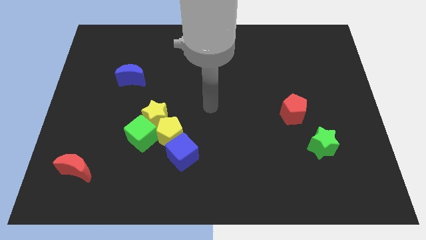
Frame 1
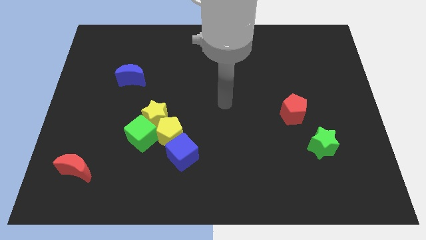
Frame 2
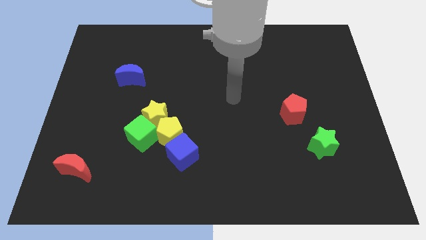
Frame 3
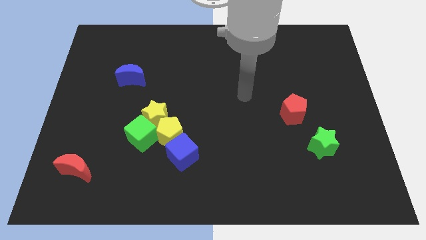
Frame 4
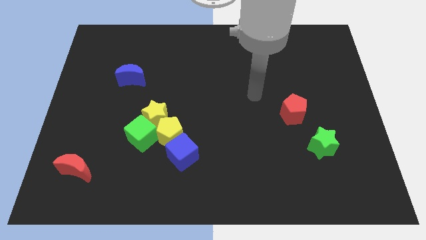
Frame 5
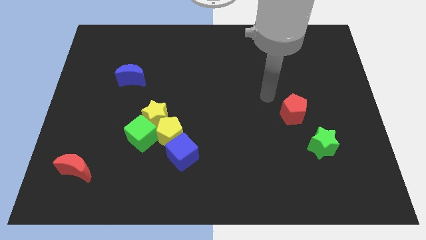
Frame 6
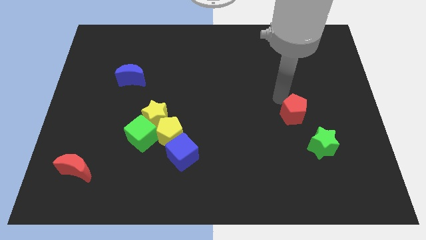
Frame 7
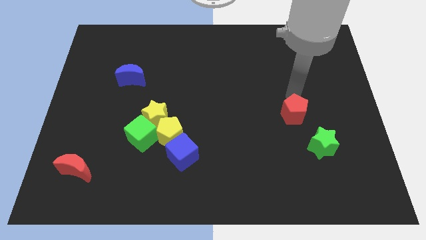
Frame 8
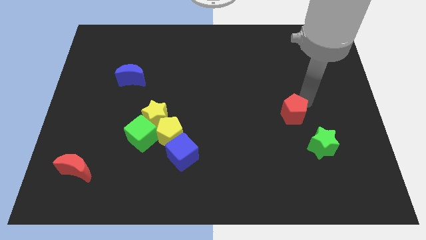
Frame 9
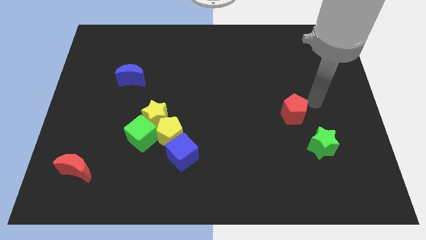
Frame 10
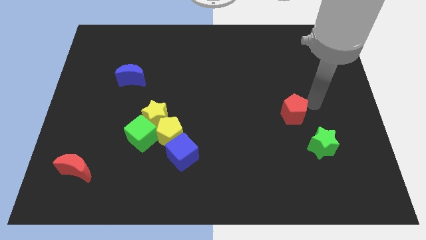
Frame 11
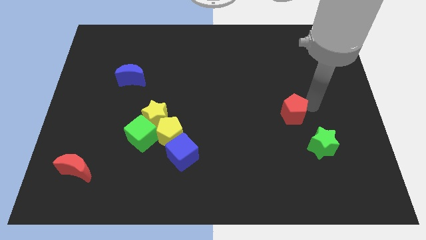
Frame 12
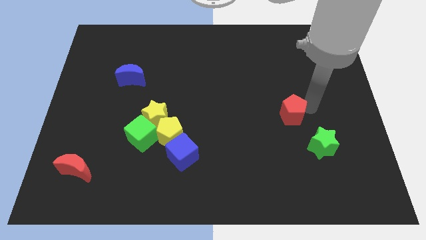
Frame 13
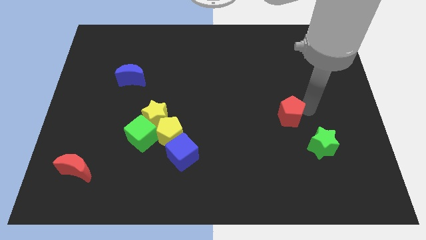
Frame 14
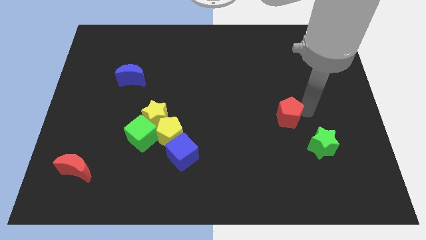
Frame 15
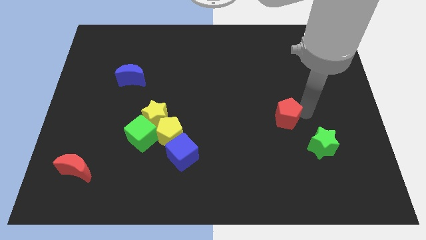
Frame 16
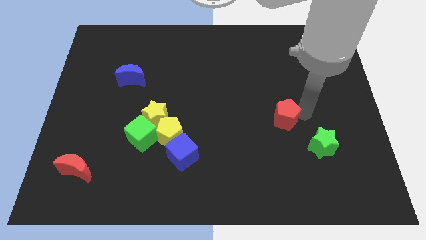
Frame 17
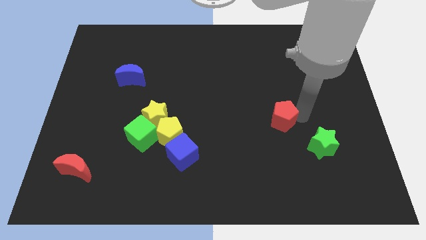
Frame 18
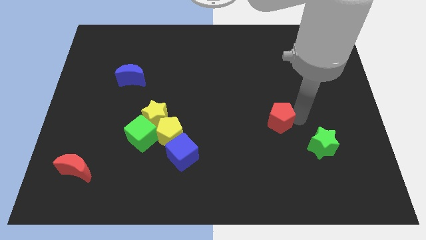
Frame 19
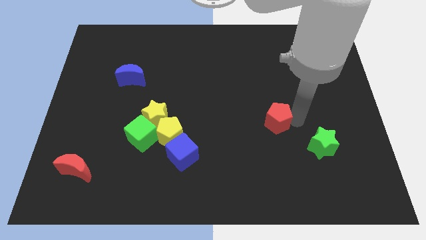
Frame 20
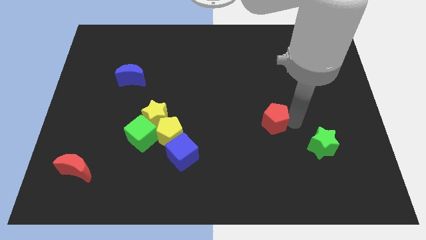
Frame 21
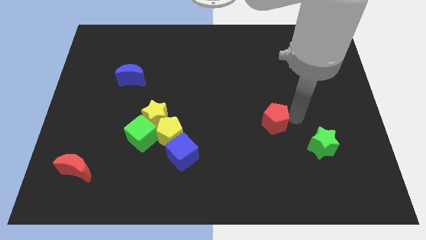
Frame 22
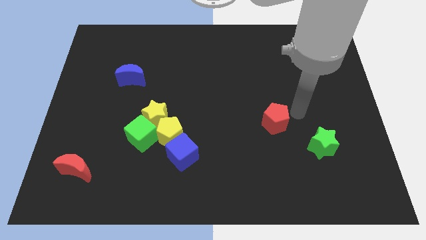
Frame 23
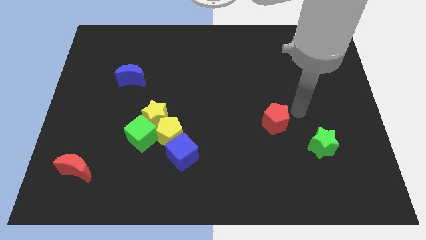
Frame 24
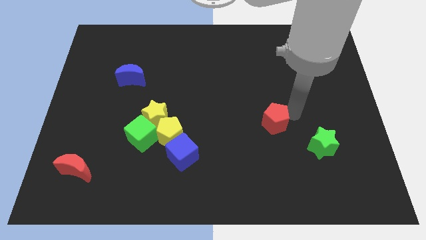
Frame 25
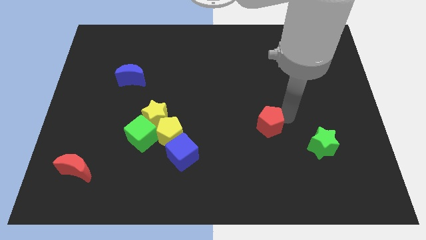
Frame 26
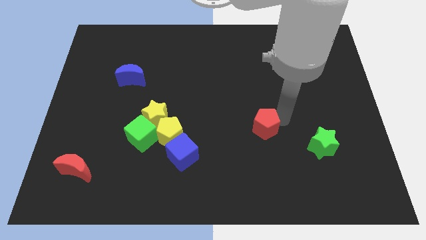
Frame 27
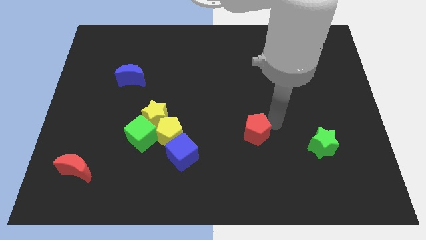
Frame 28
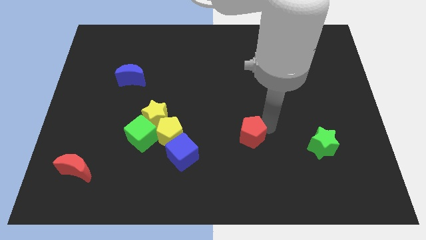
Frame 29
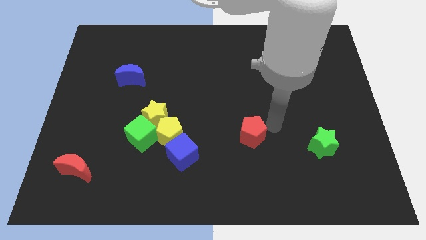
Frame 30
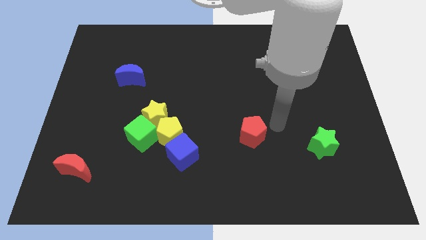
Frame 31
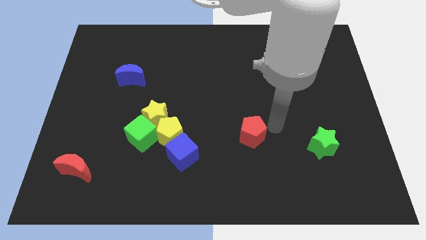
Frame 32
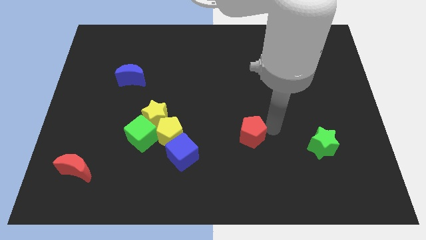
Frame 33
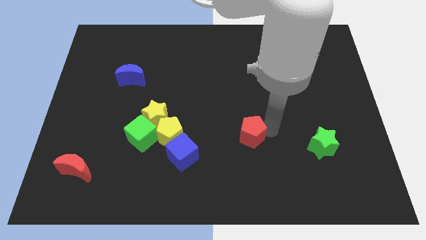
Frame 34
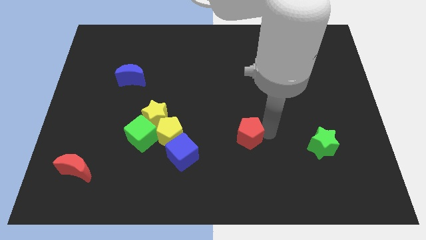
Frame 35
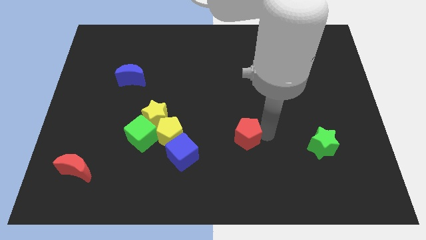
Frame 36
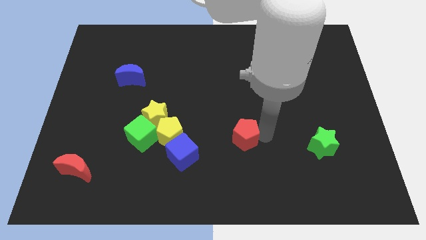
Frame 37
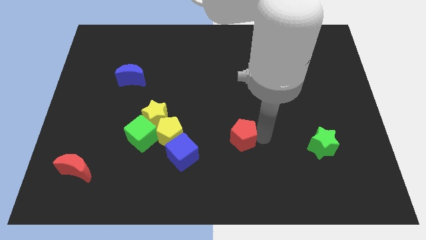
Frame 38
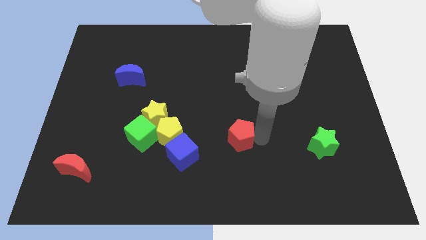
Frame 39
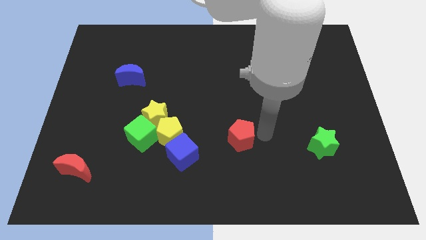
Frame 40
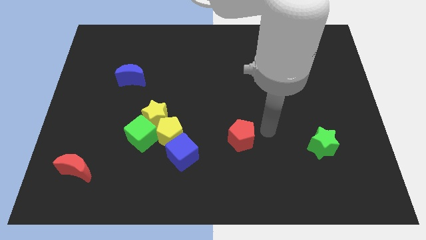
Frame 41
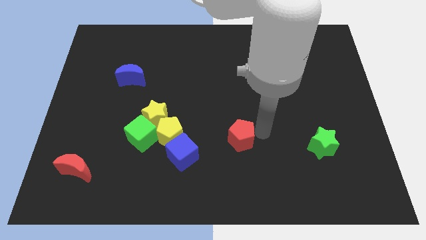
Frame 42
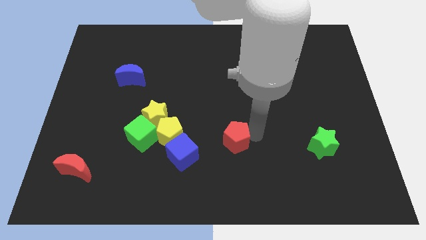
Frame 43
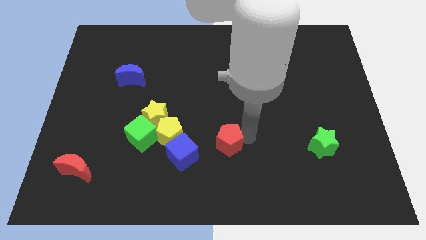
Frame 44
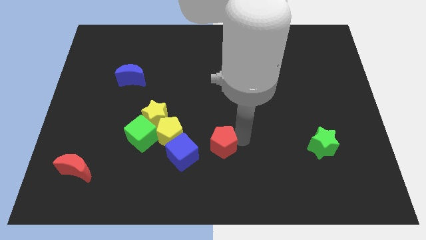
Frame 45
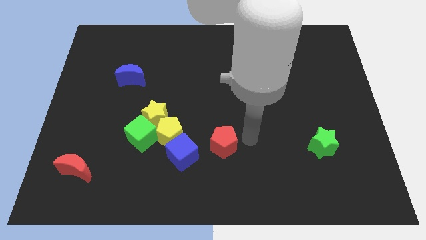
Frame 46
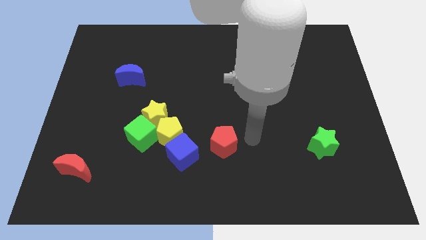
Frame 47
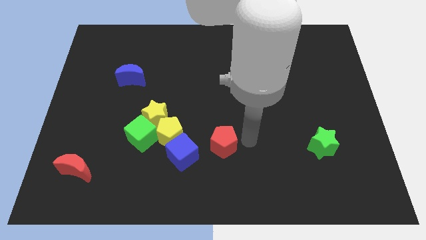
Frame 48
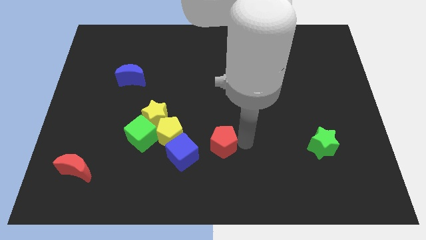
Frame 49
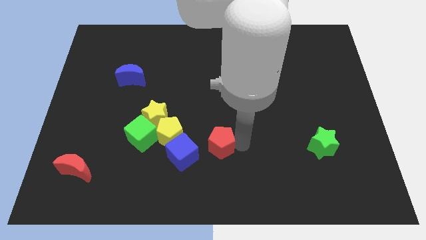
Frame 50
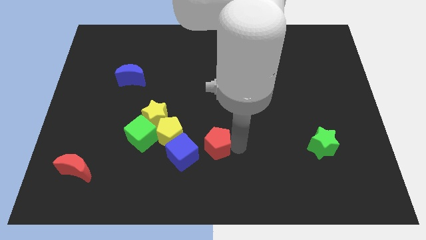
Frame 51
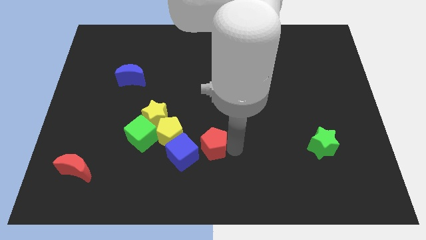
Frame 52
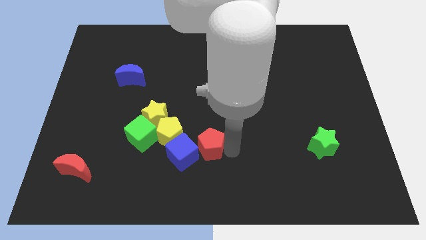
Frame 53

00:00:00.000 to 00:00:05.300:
move the red pentagon towards the blue cube

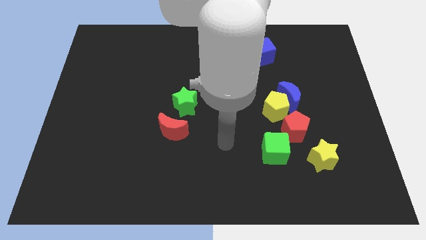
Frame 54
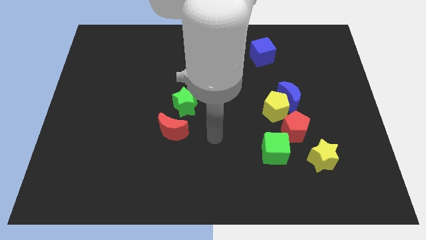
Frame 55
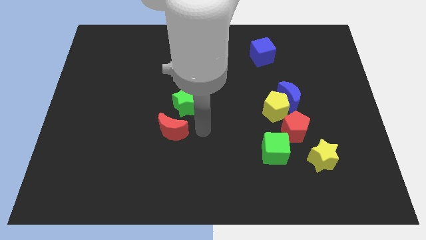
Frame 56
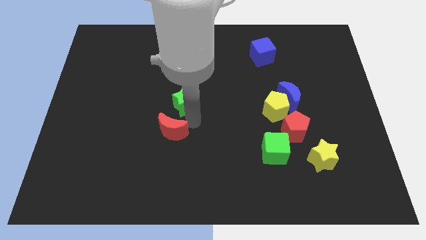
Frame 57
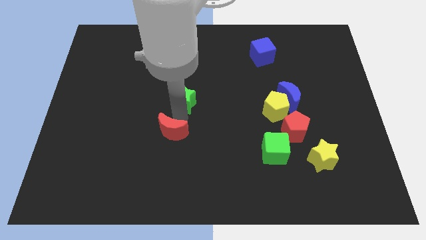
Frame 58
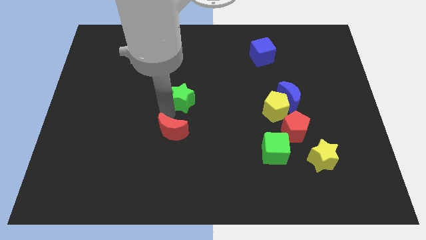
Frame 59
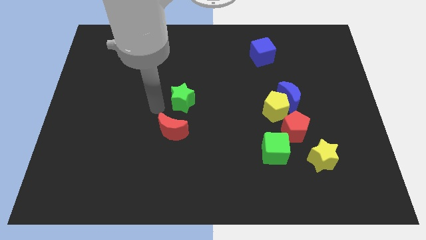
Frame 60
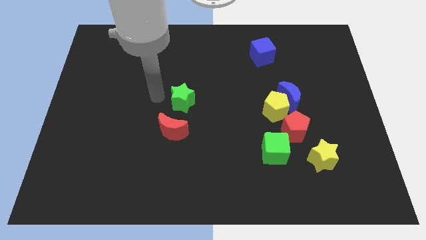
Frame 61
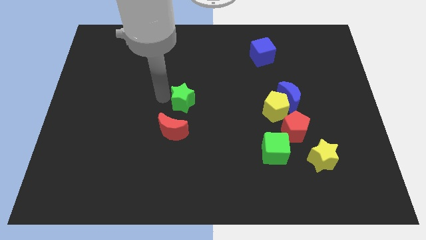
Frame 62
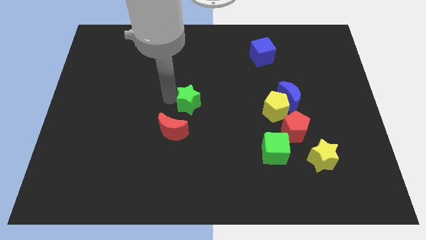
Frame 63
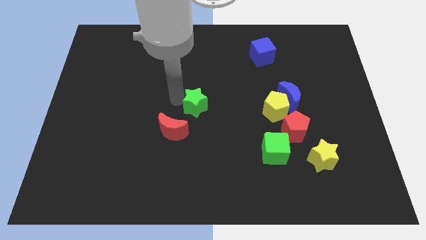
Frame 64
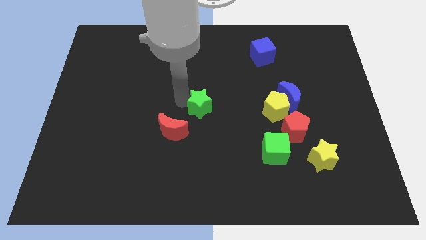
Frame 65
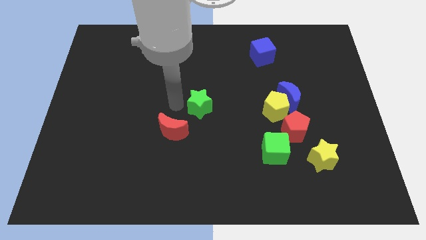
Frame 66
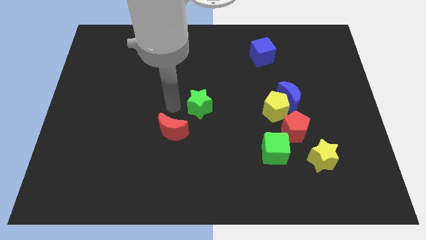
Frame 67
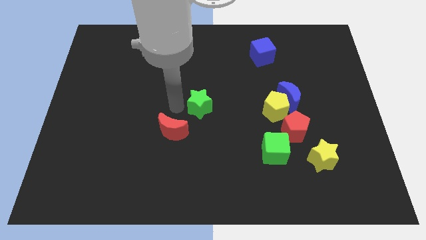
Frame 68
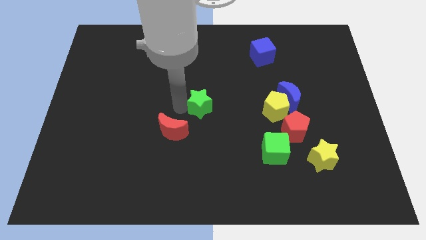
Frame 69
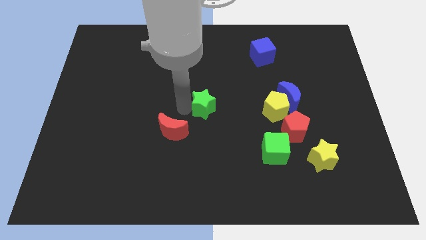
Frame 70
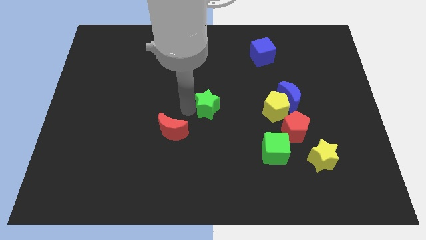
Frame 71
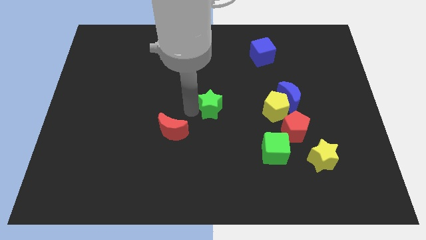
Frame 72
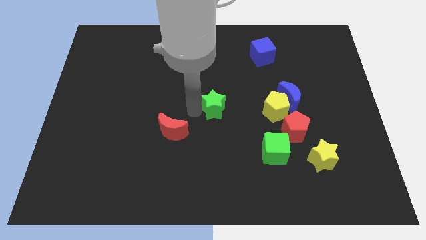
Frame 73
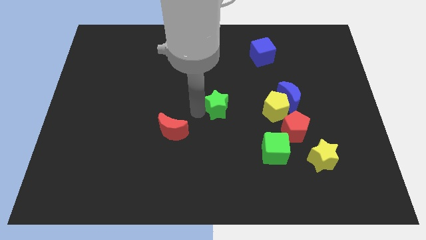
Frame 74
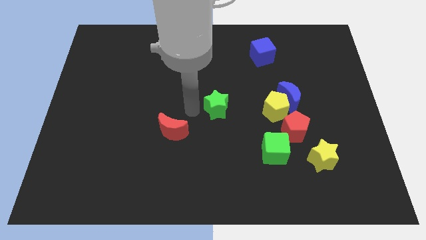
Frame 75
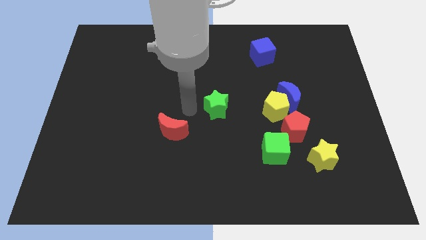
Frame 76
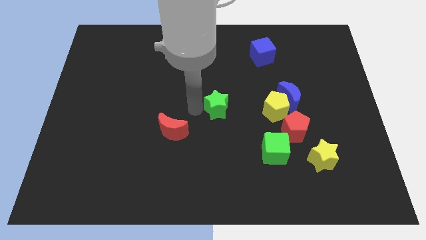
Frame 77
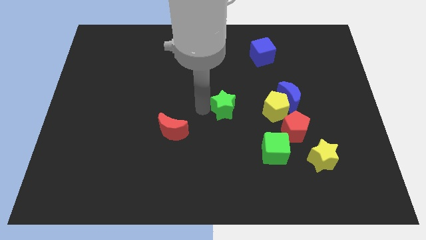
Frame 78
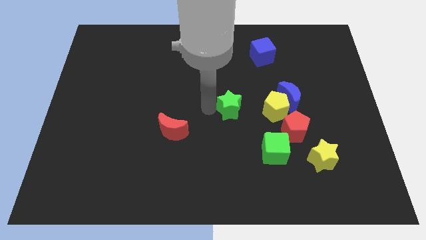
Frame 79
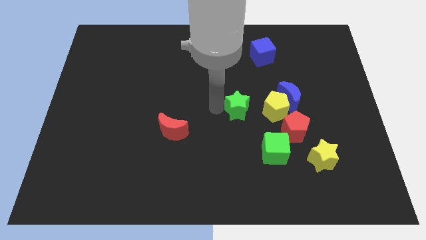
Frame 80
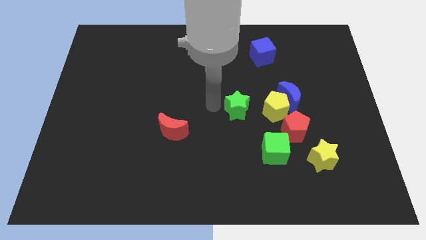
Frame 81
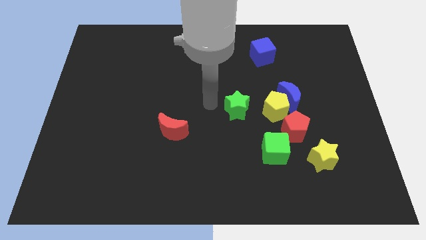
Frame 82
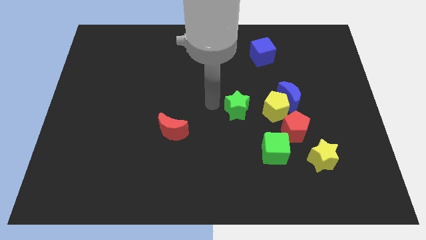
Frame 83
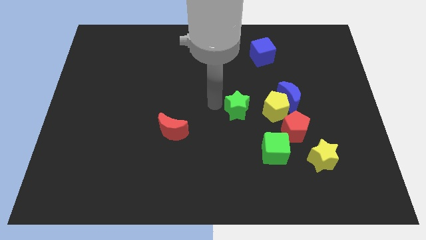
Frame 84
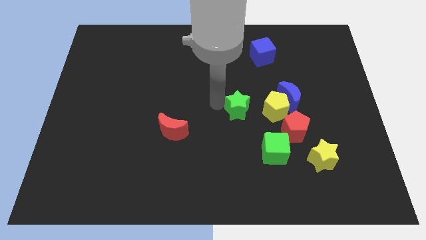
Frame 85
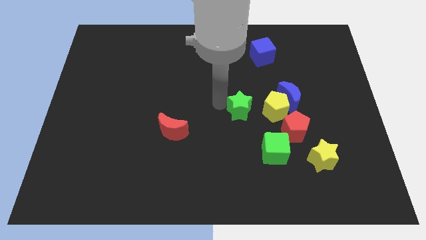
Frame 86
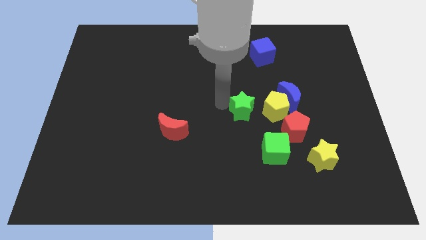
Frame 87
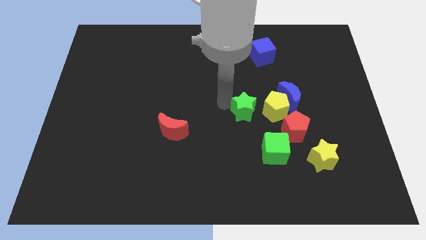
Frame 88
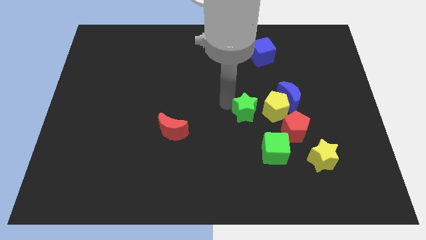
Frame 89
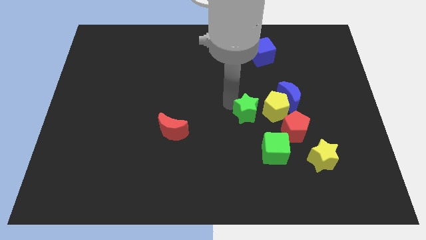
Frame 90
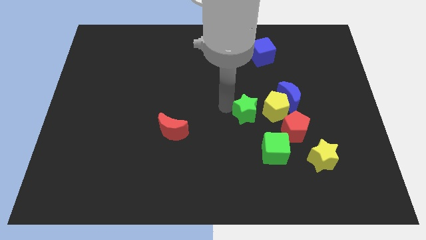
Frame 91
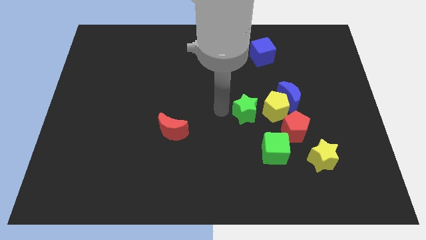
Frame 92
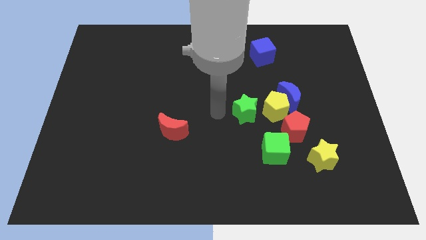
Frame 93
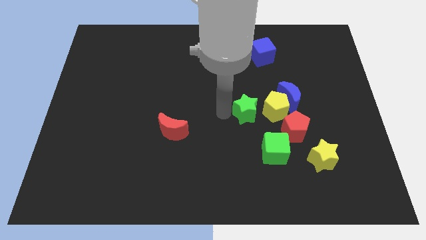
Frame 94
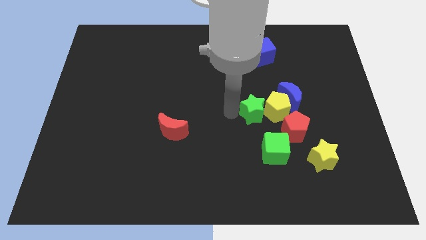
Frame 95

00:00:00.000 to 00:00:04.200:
slide the green star next to the yellow pentagon
